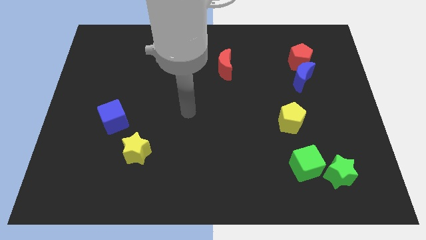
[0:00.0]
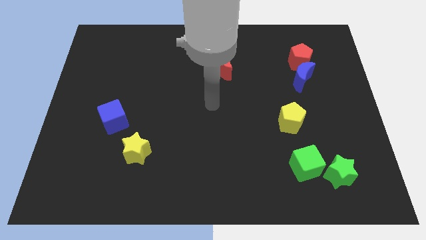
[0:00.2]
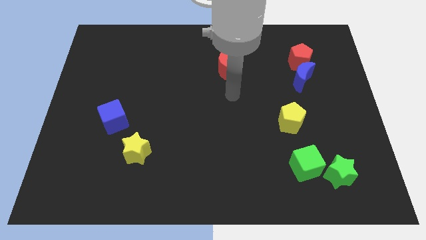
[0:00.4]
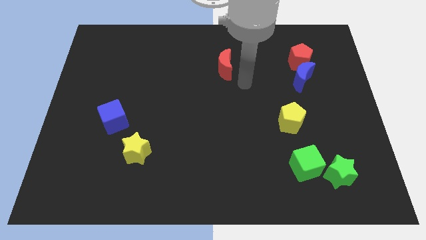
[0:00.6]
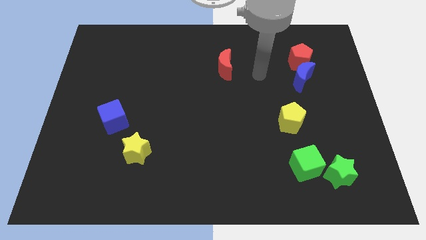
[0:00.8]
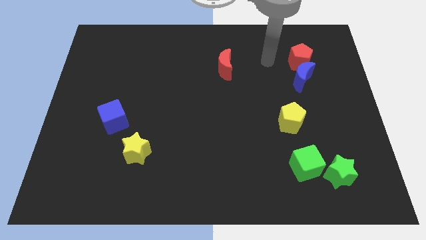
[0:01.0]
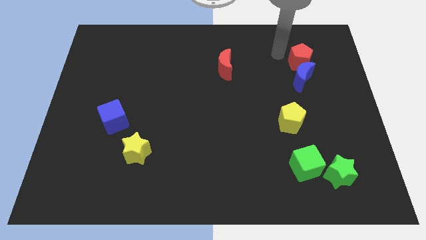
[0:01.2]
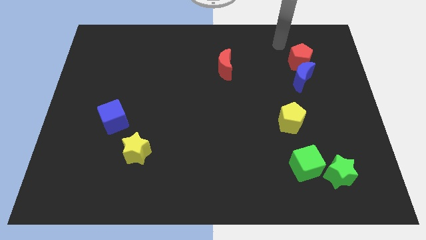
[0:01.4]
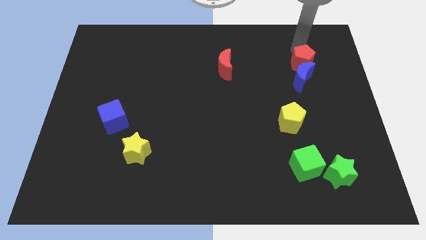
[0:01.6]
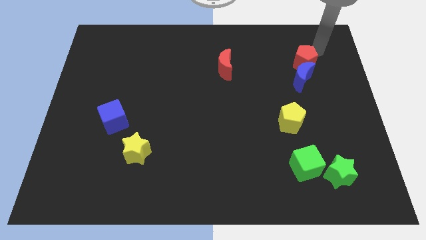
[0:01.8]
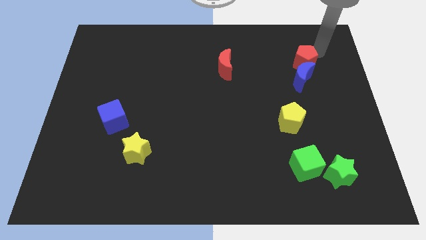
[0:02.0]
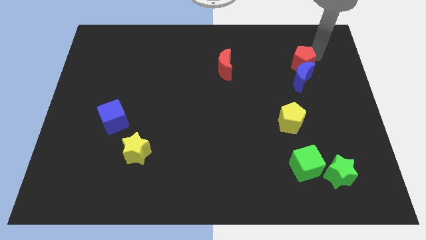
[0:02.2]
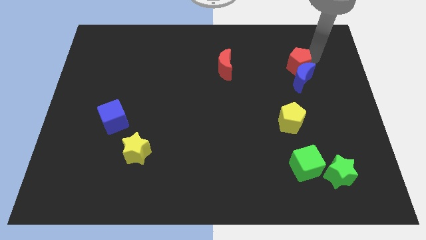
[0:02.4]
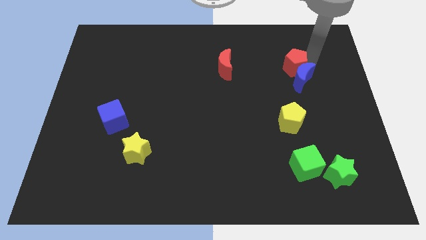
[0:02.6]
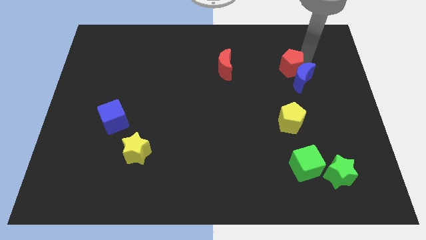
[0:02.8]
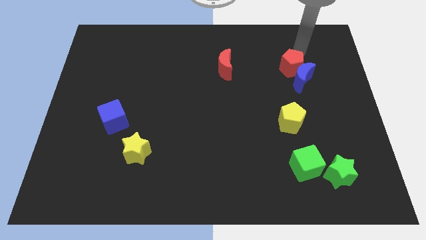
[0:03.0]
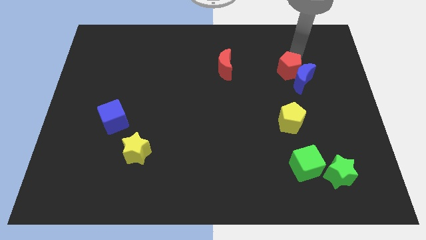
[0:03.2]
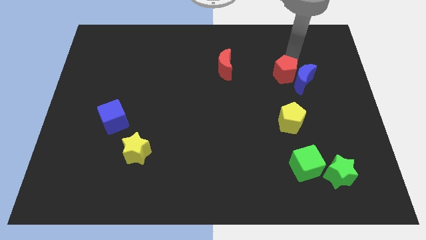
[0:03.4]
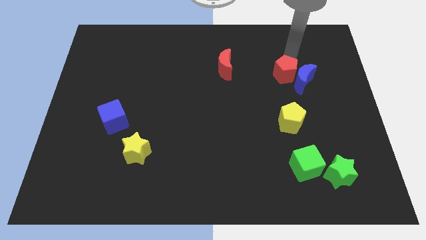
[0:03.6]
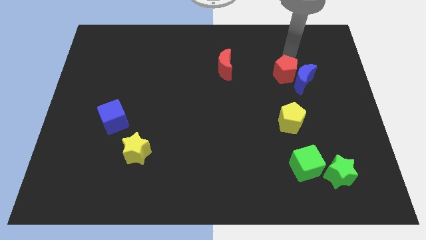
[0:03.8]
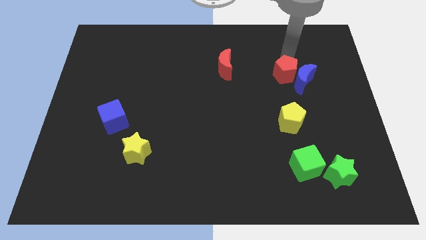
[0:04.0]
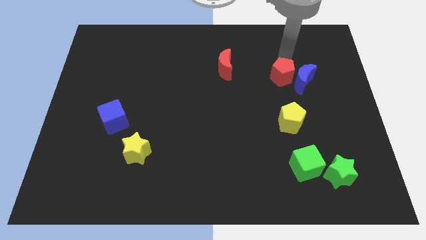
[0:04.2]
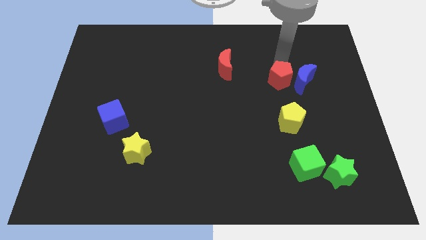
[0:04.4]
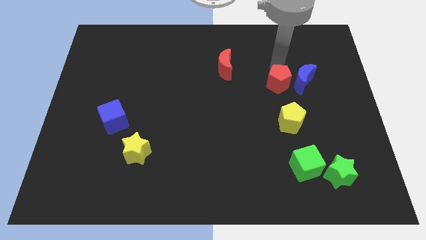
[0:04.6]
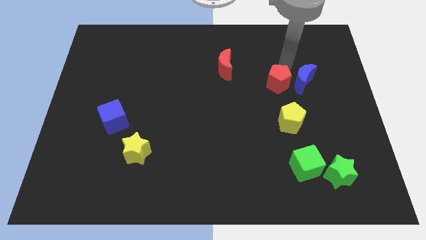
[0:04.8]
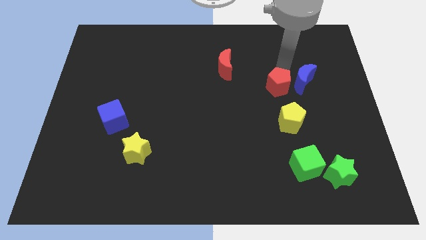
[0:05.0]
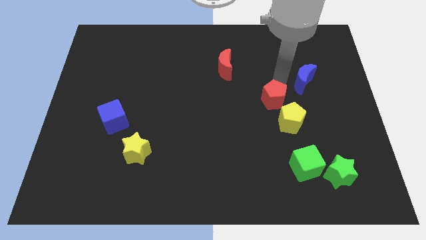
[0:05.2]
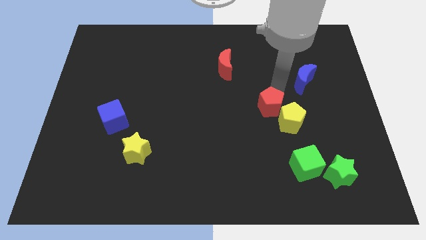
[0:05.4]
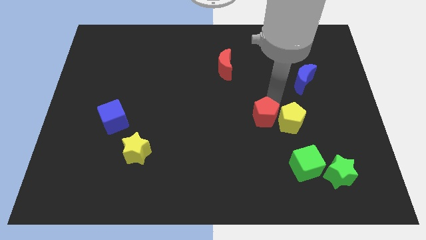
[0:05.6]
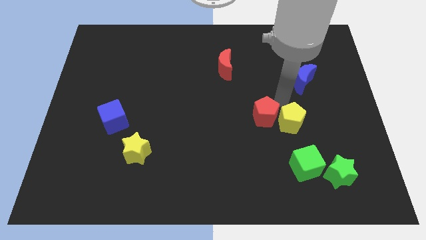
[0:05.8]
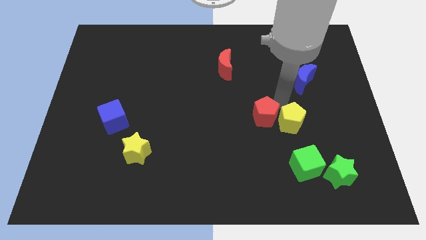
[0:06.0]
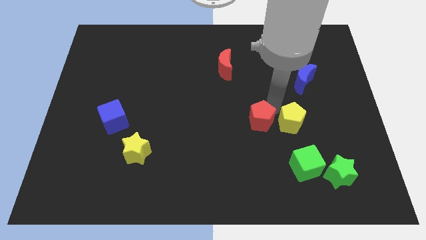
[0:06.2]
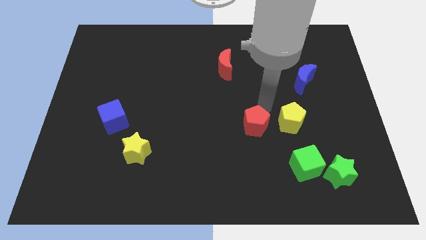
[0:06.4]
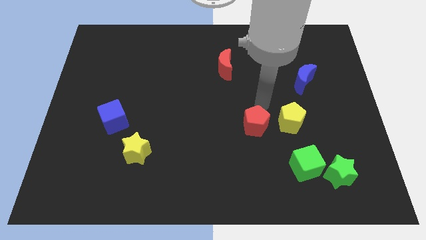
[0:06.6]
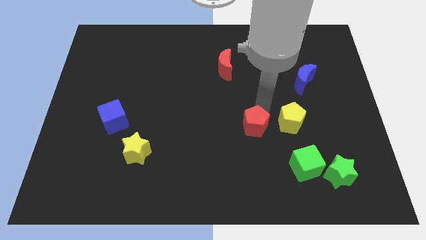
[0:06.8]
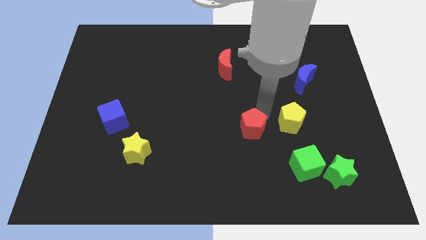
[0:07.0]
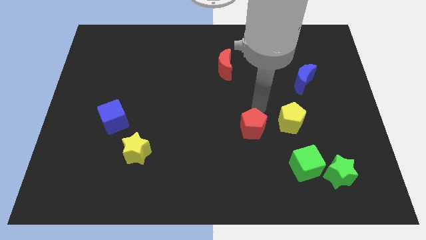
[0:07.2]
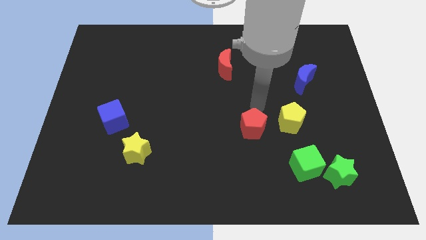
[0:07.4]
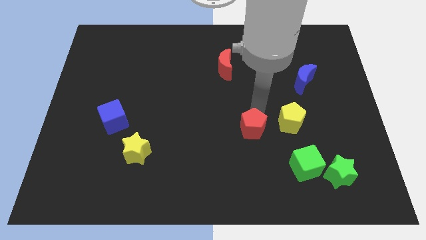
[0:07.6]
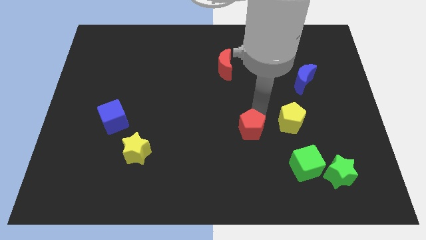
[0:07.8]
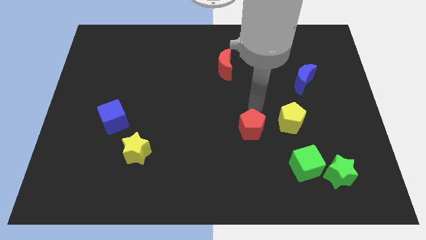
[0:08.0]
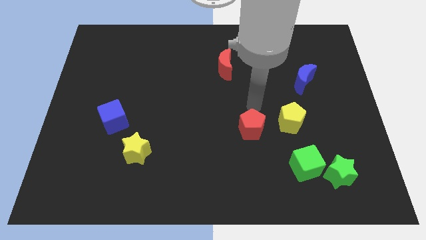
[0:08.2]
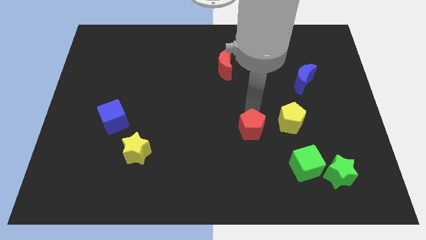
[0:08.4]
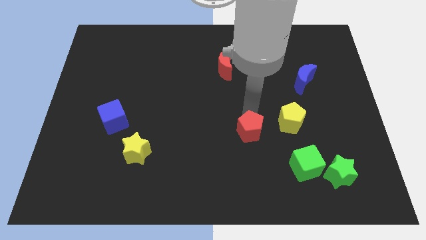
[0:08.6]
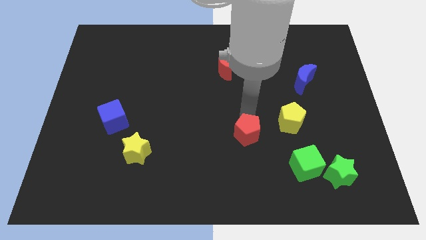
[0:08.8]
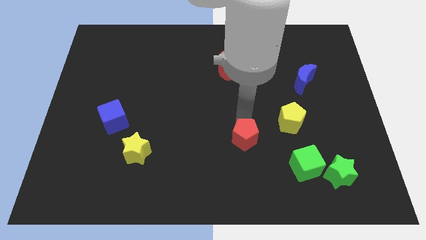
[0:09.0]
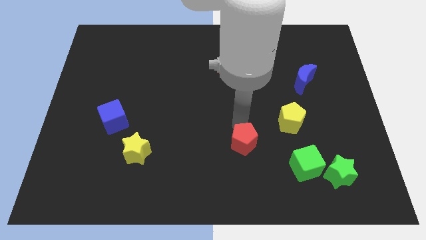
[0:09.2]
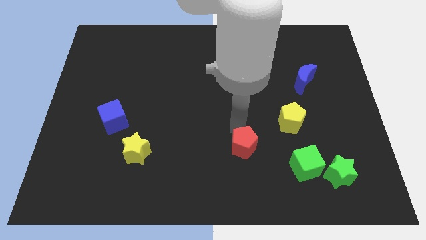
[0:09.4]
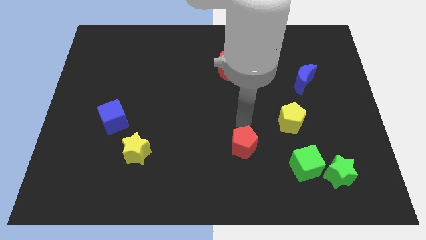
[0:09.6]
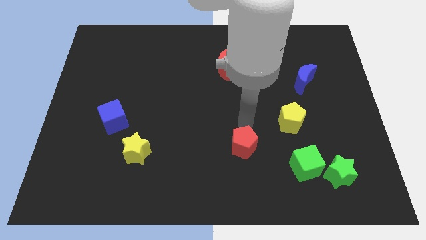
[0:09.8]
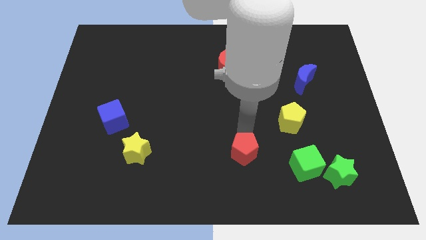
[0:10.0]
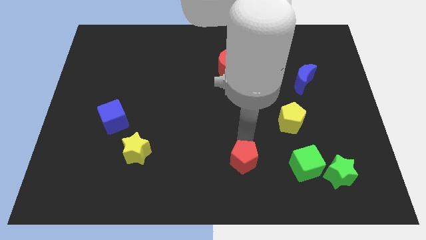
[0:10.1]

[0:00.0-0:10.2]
move the red pentagon to the bottom
